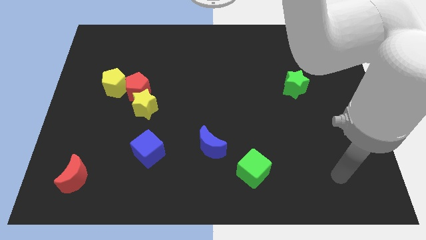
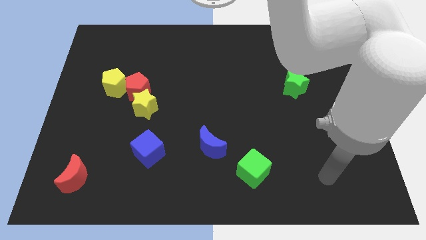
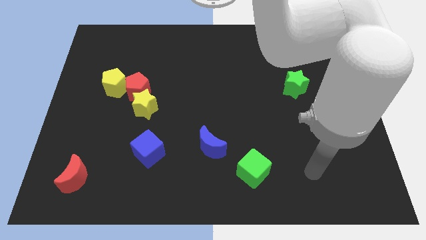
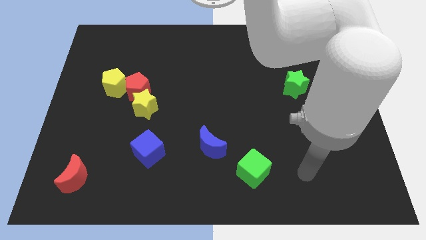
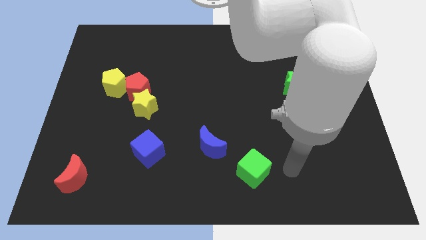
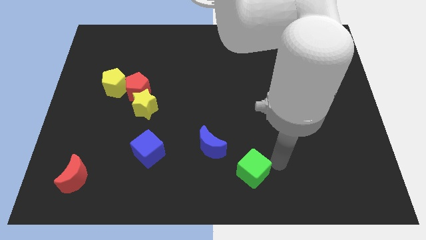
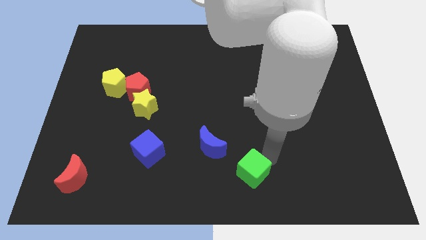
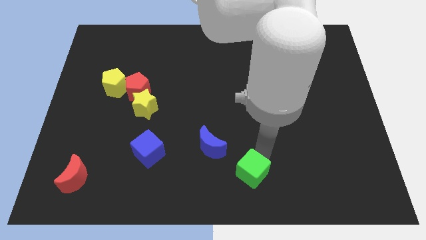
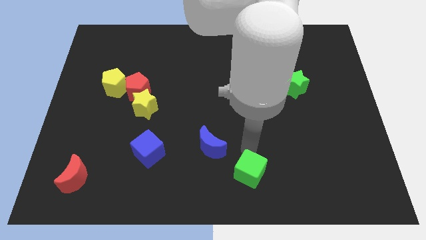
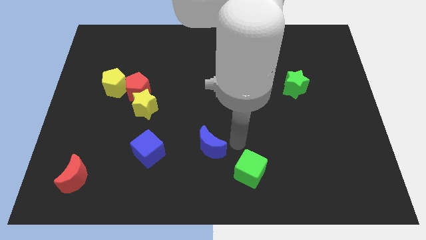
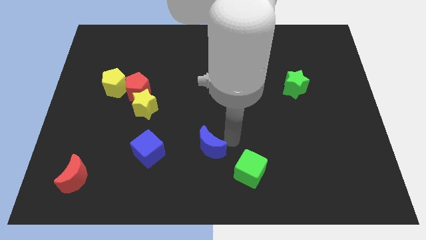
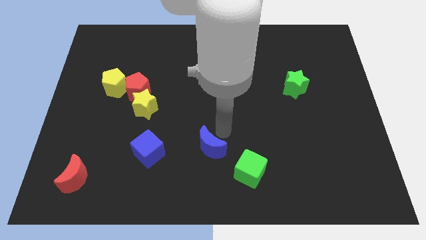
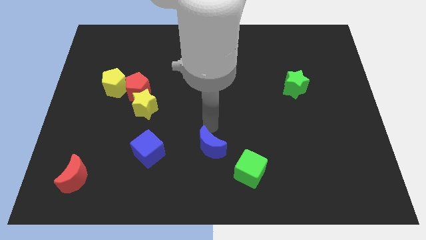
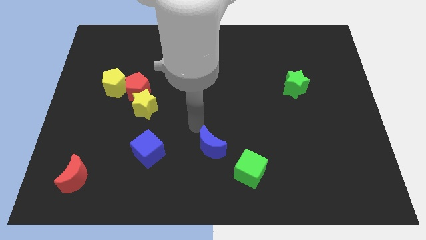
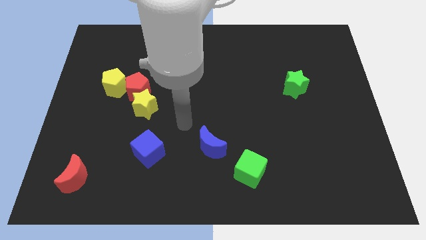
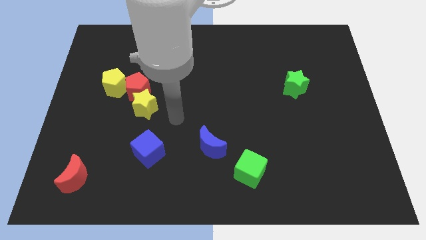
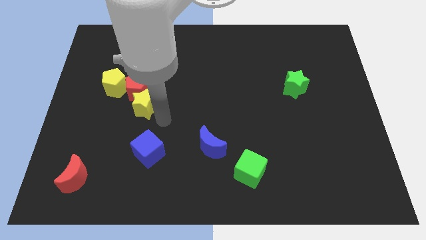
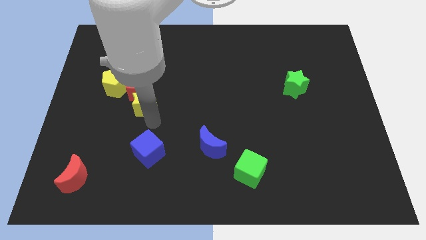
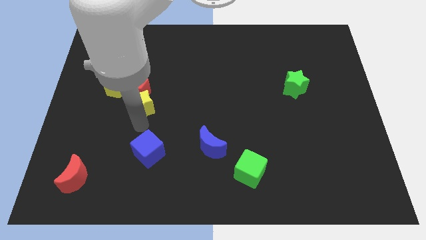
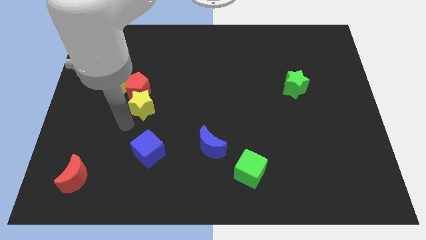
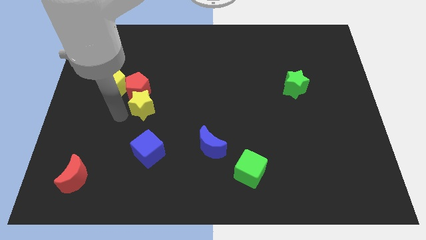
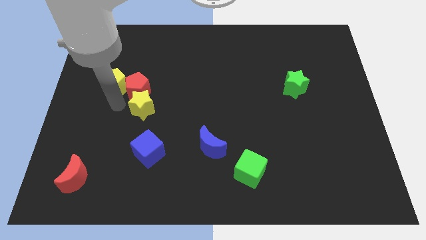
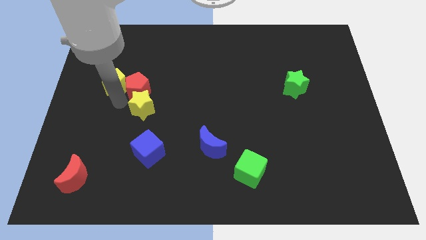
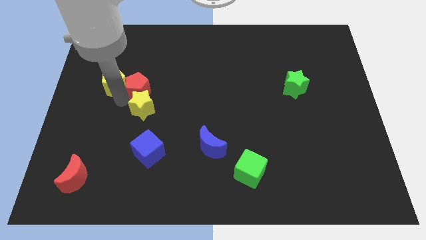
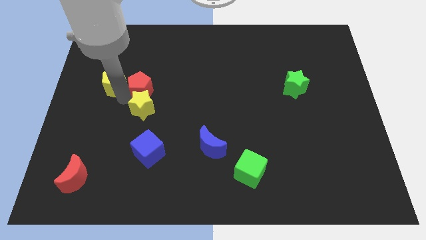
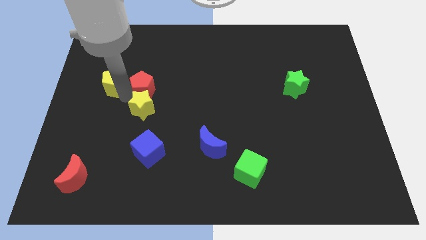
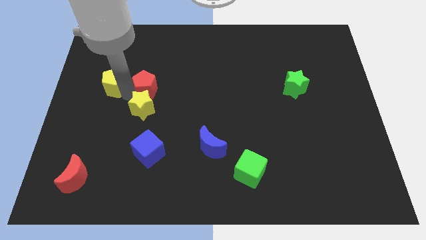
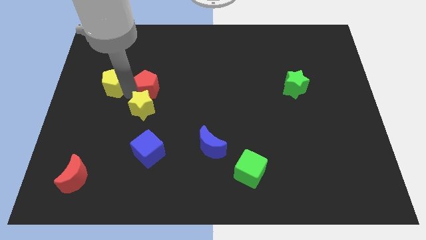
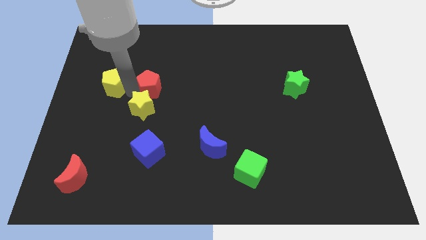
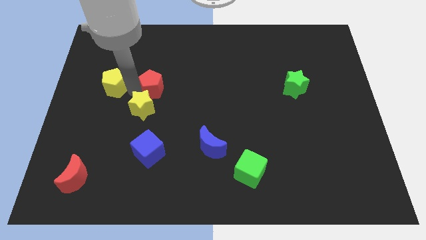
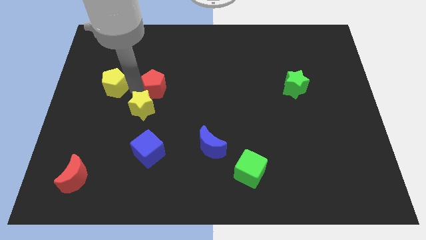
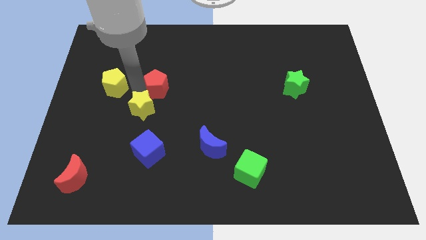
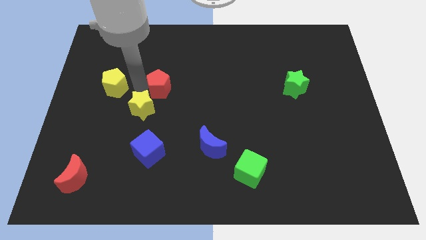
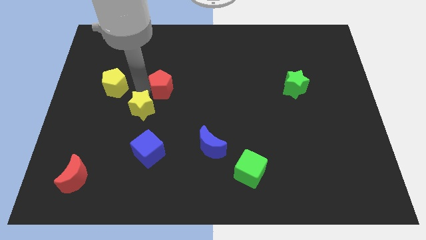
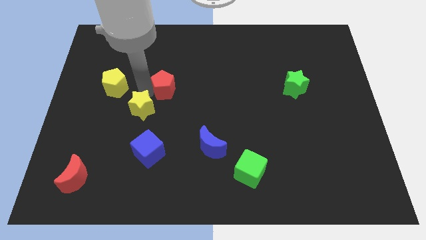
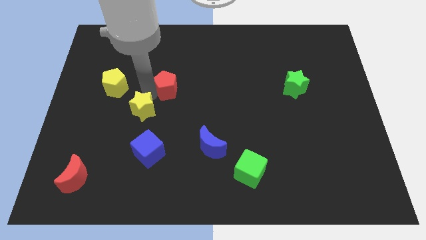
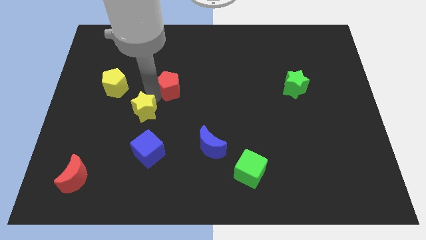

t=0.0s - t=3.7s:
separate the red pentagon from the yellow star and yellow pentagon

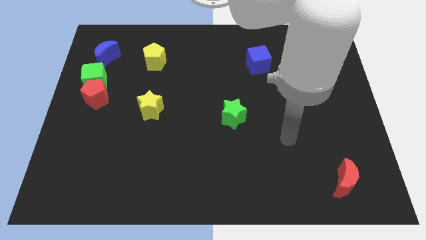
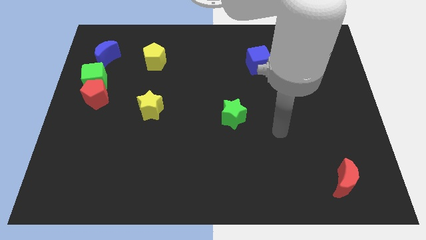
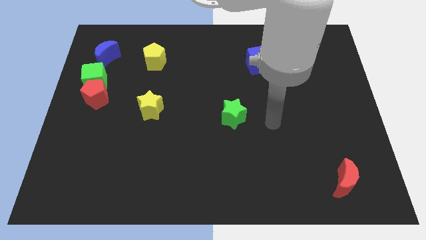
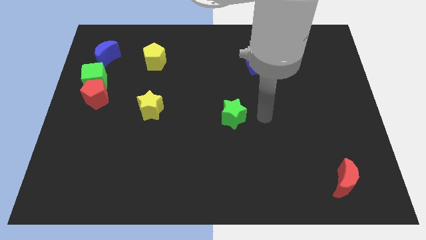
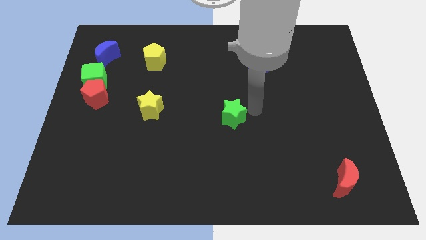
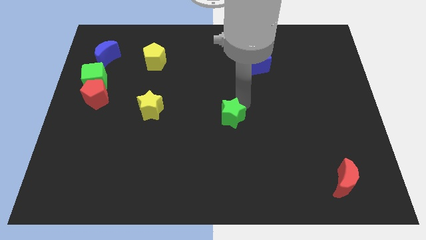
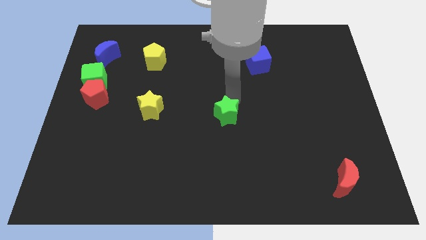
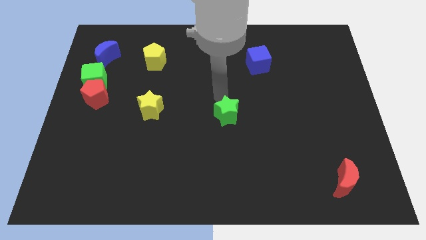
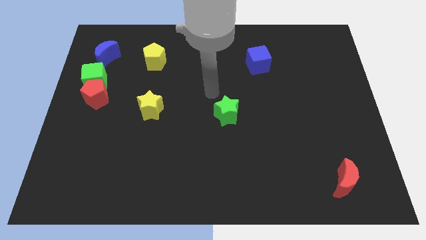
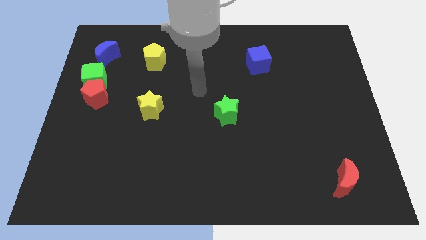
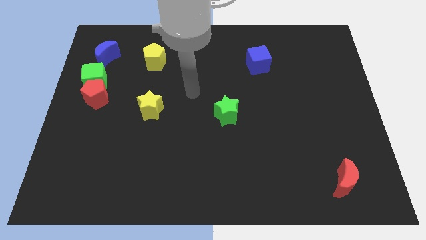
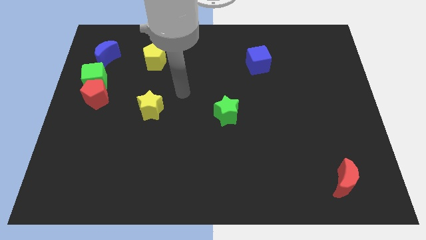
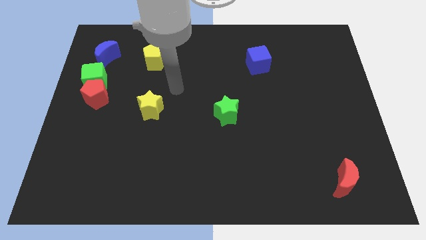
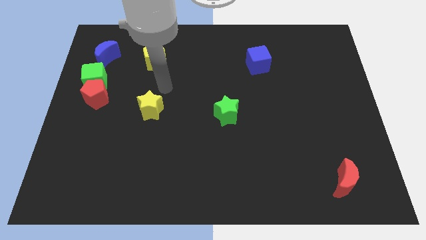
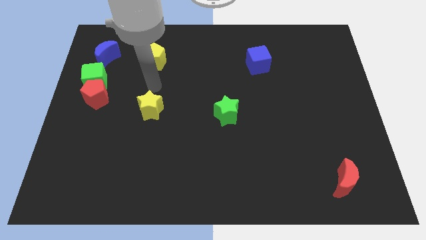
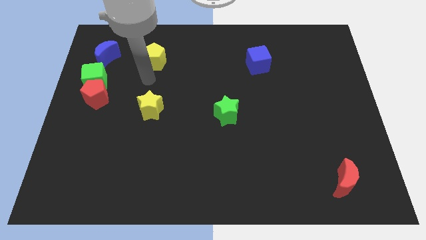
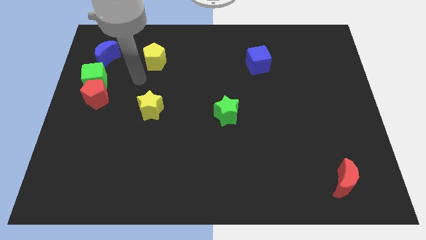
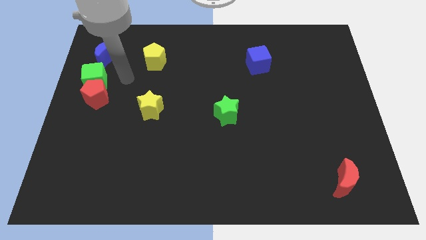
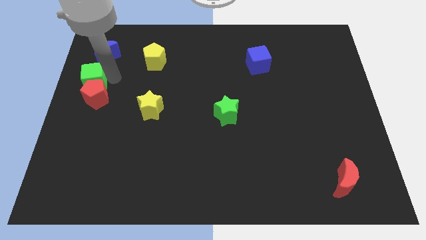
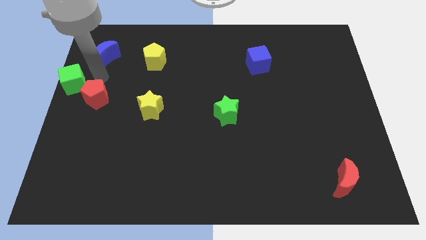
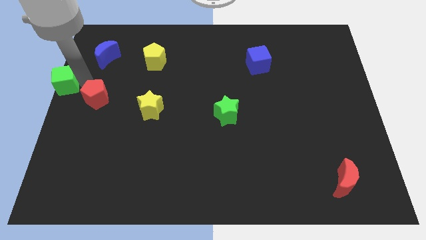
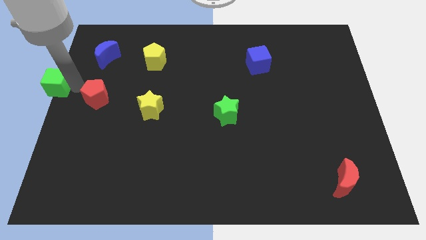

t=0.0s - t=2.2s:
separate the red pentagon from the green cube

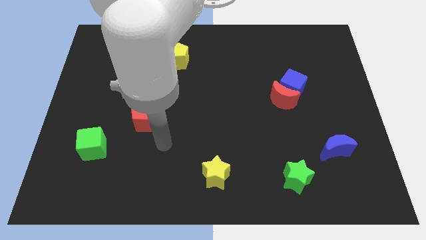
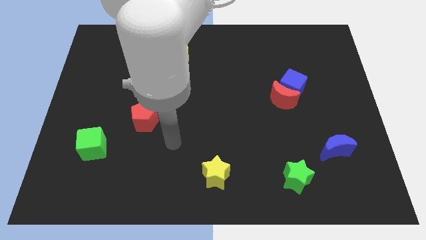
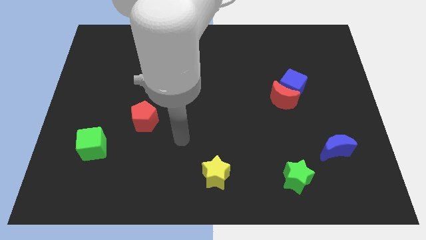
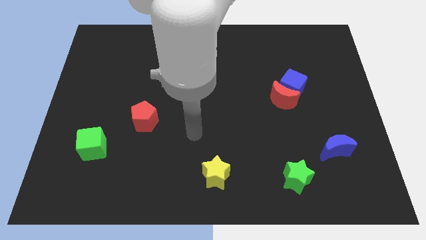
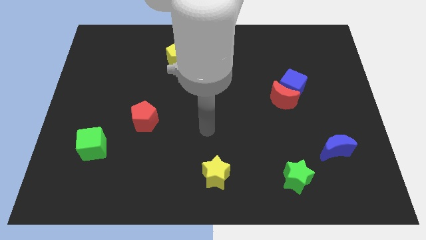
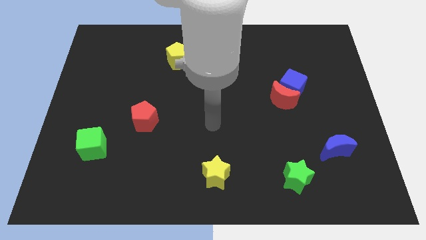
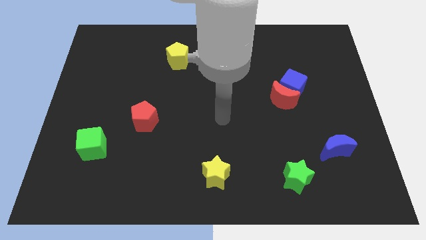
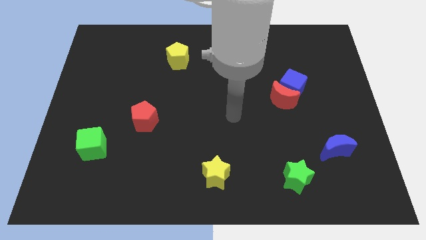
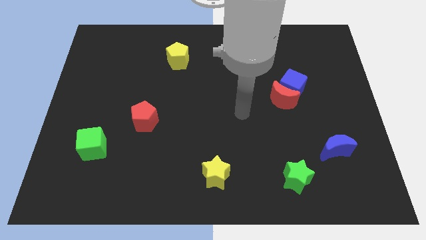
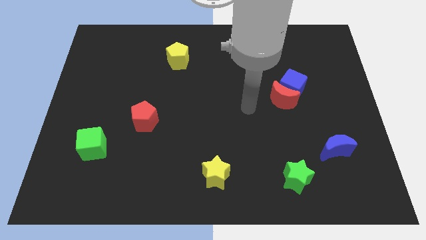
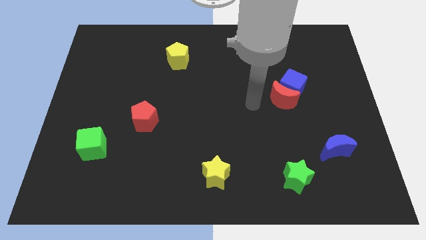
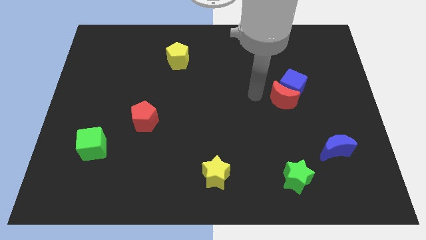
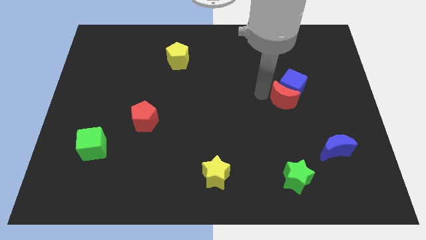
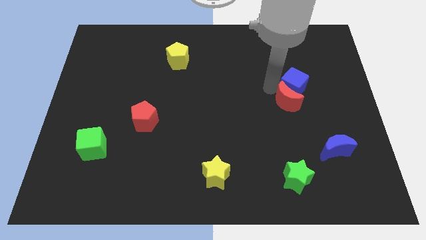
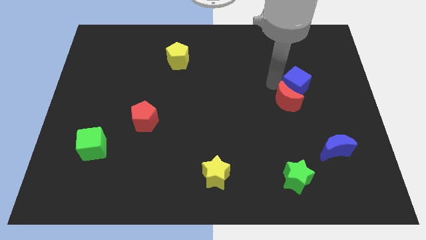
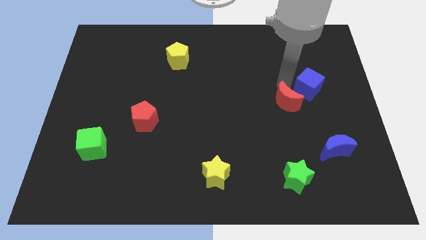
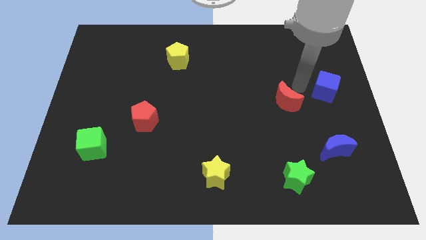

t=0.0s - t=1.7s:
move the red moon away from the blue cube

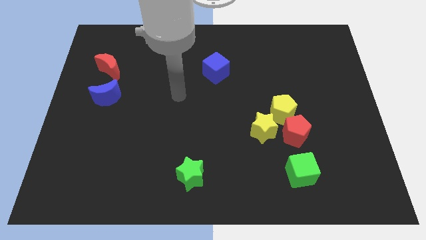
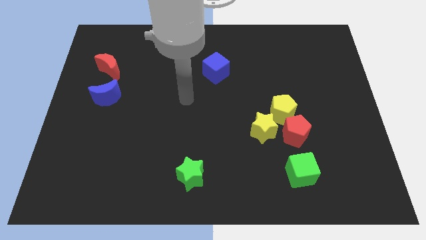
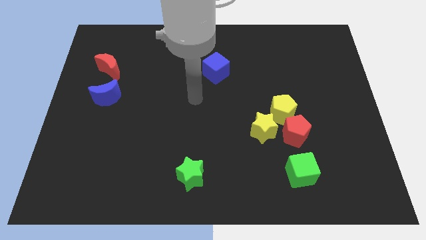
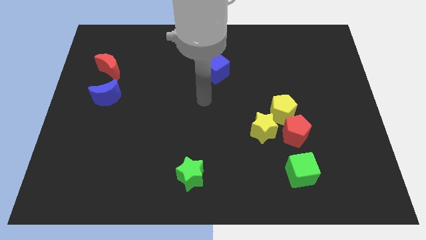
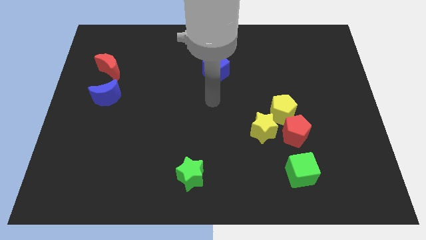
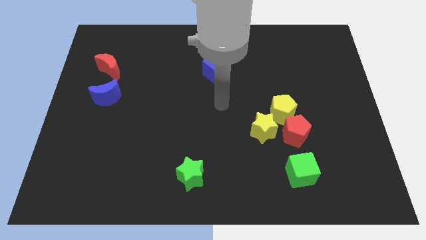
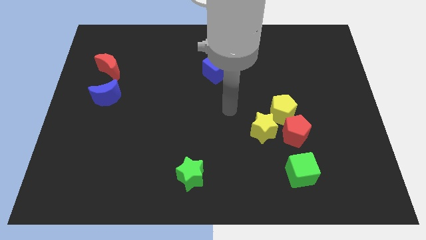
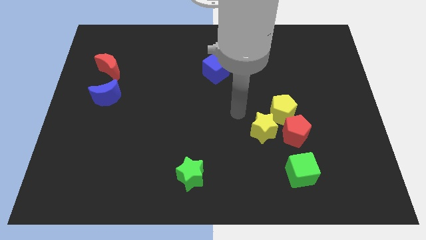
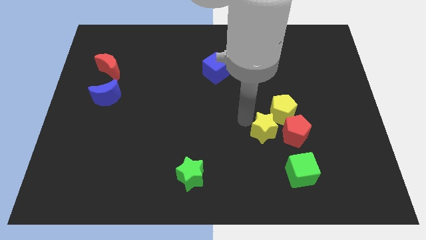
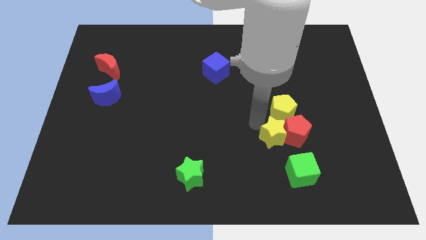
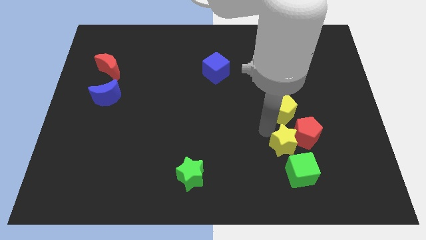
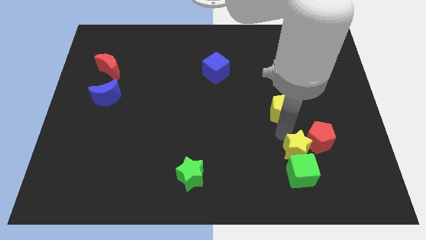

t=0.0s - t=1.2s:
move the yellow pentagon away from the red pentagon and yellow star

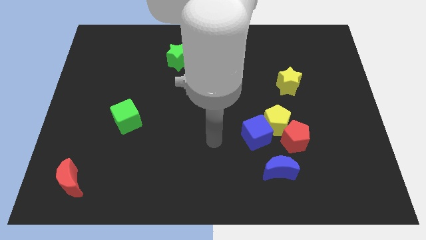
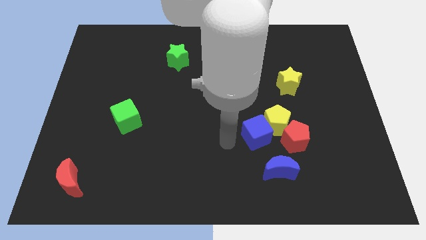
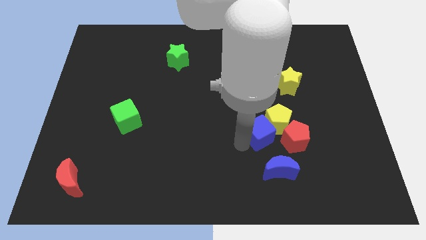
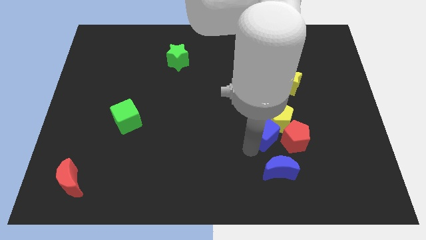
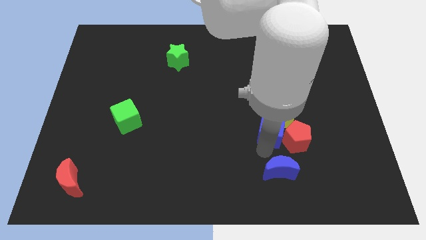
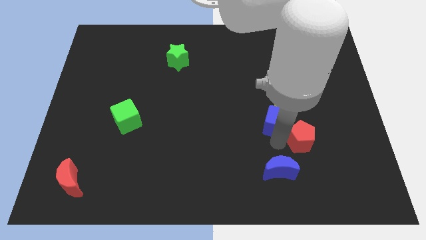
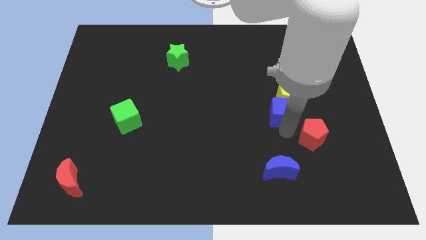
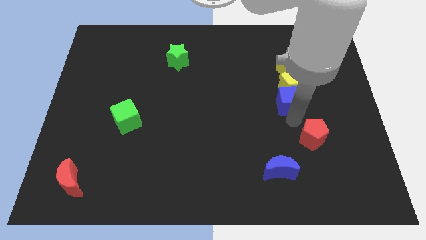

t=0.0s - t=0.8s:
pull the yellow pentagon apart from the red pentagon and blue cube
